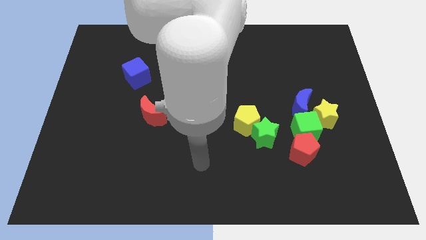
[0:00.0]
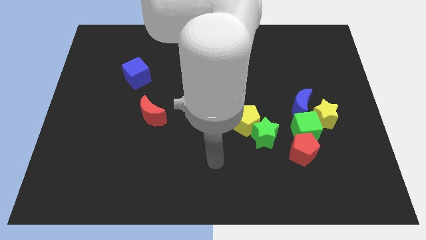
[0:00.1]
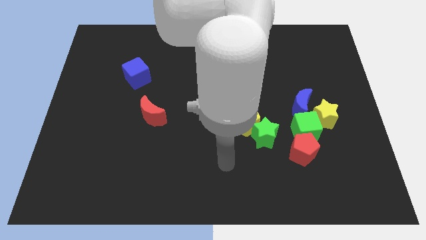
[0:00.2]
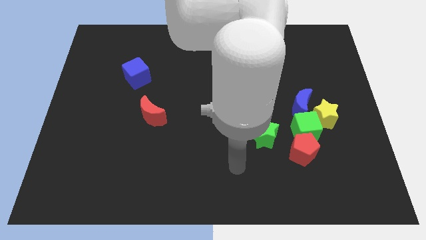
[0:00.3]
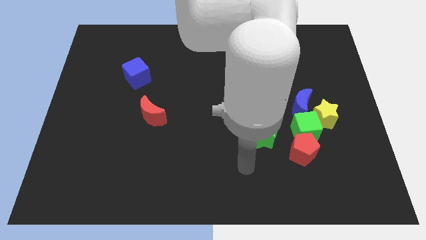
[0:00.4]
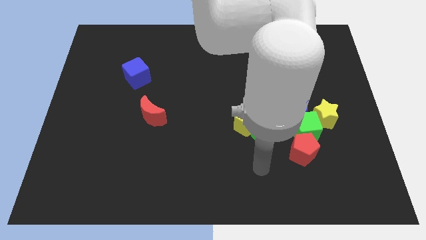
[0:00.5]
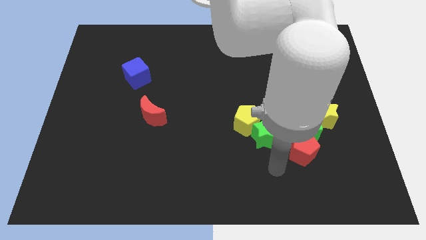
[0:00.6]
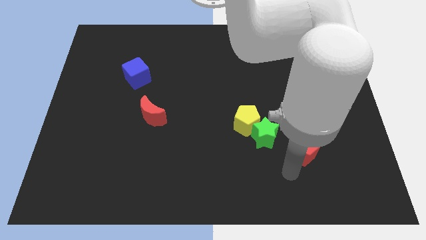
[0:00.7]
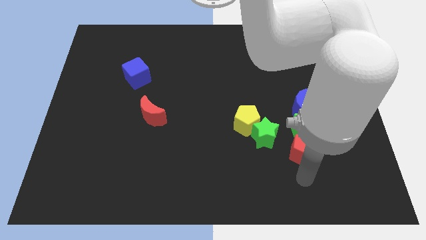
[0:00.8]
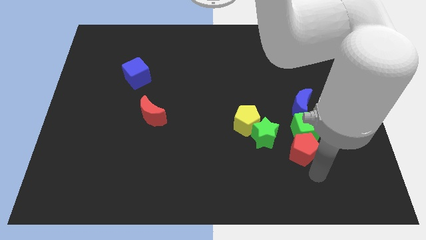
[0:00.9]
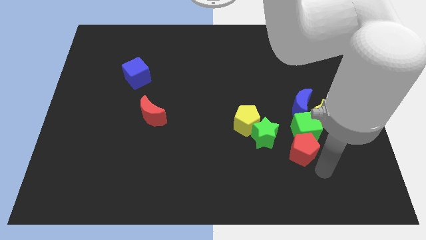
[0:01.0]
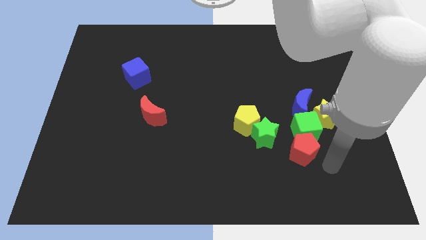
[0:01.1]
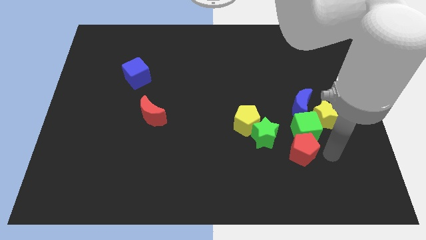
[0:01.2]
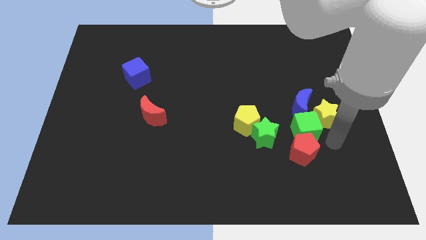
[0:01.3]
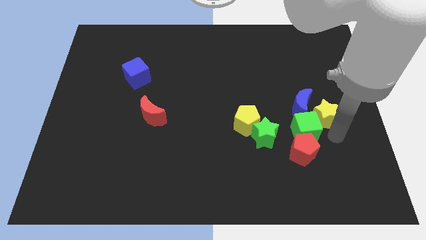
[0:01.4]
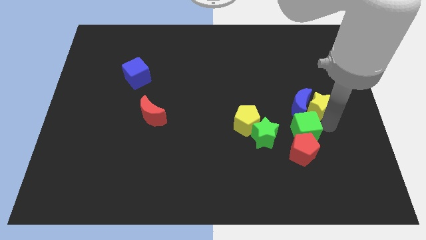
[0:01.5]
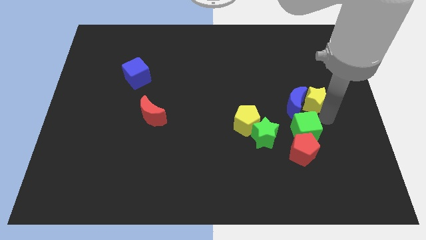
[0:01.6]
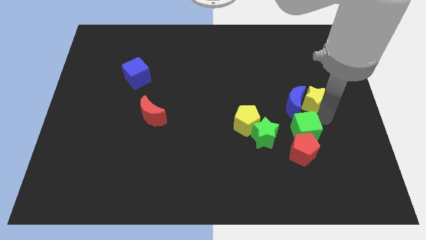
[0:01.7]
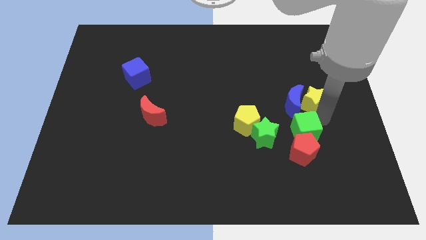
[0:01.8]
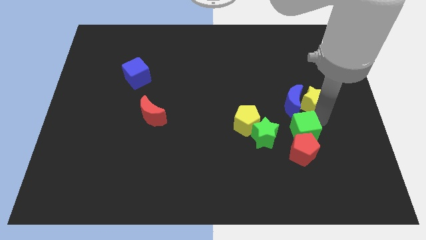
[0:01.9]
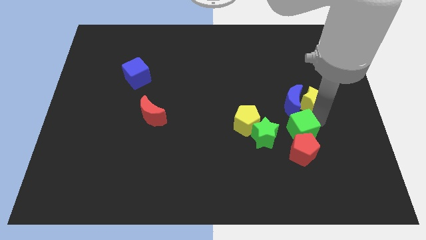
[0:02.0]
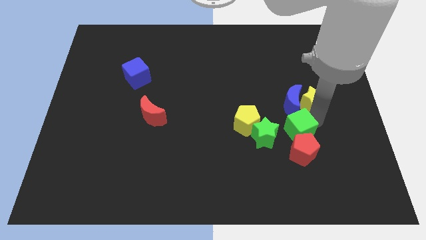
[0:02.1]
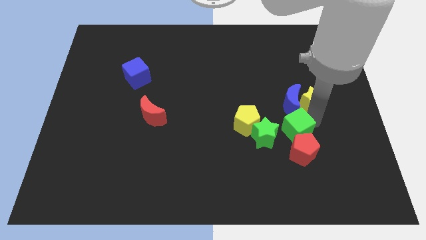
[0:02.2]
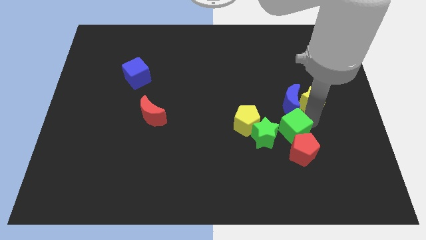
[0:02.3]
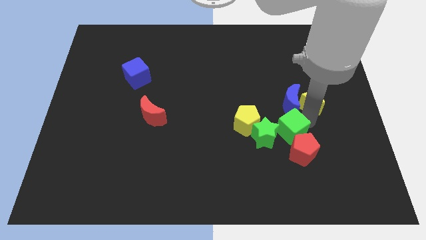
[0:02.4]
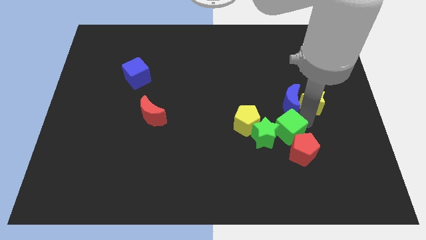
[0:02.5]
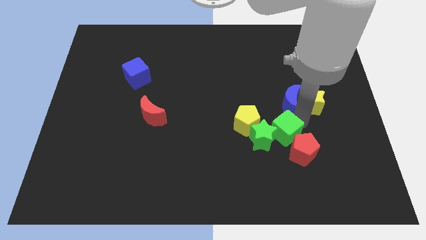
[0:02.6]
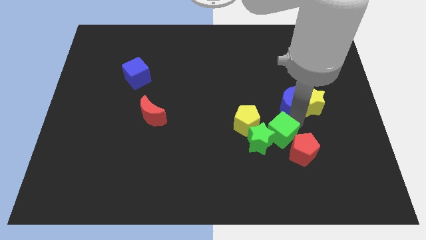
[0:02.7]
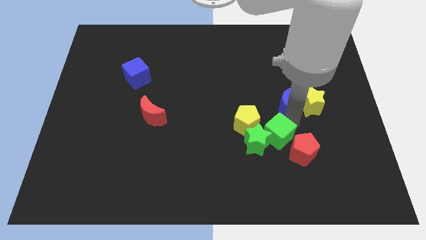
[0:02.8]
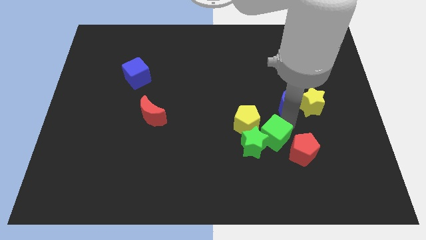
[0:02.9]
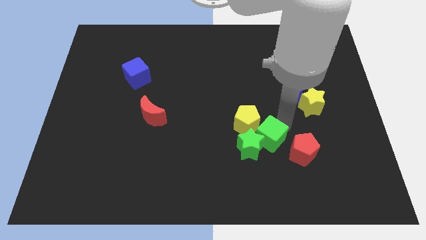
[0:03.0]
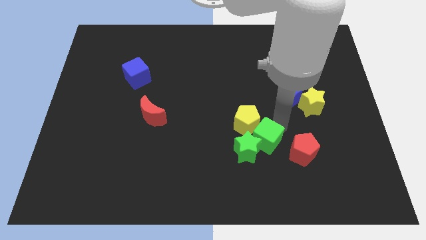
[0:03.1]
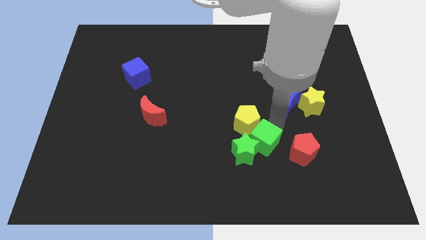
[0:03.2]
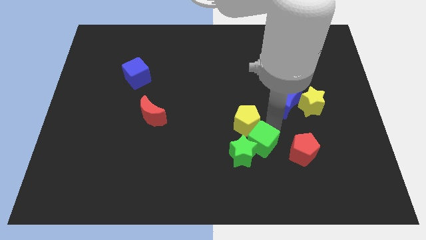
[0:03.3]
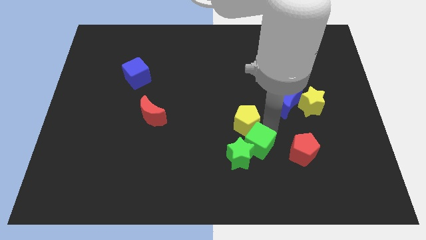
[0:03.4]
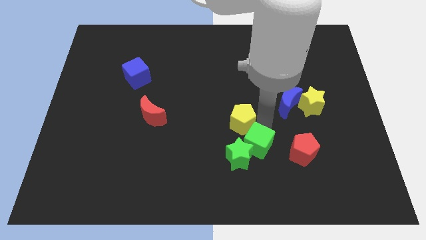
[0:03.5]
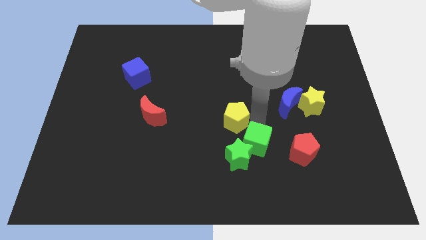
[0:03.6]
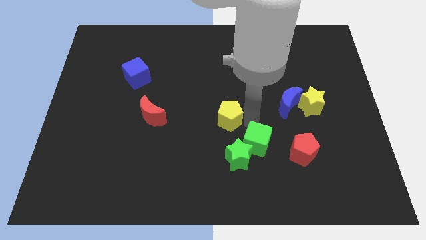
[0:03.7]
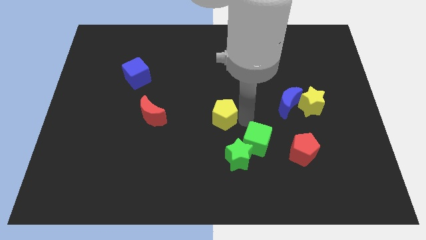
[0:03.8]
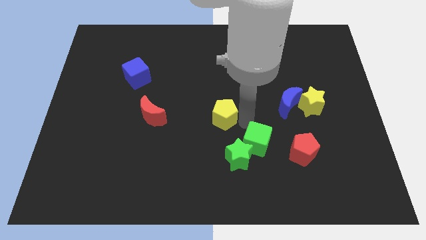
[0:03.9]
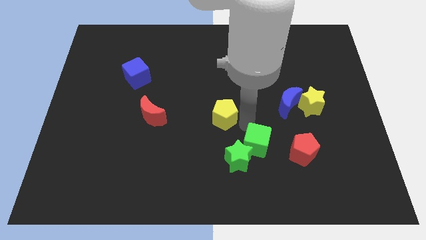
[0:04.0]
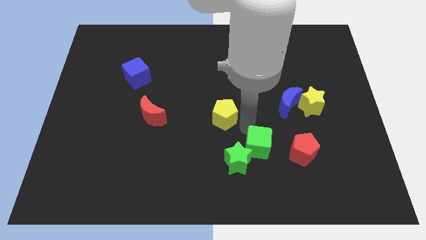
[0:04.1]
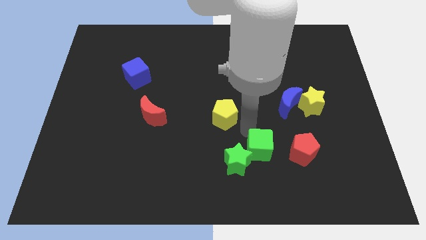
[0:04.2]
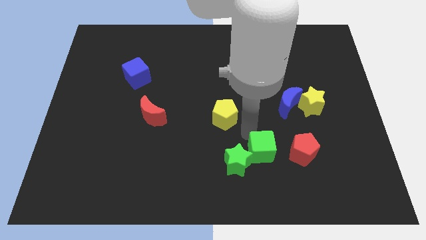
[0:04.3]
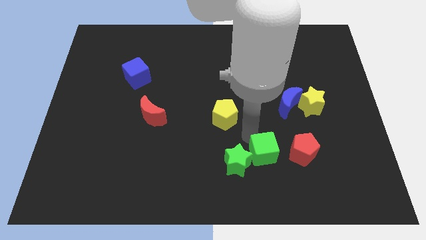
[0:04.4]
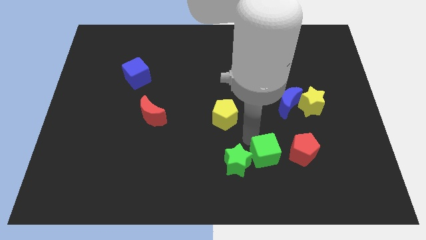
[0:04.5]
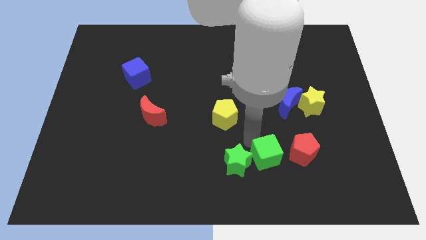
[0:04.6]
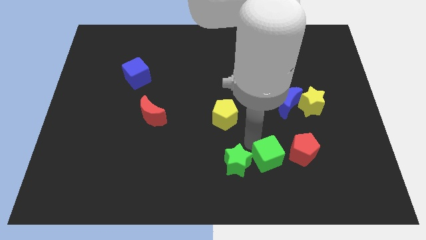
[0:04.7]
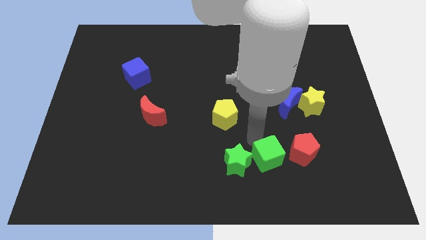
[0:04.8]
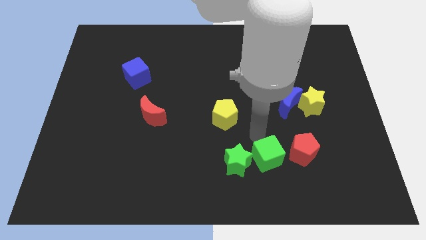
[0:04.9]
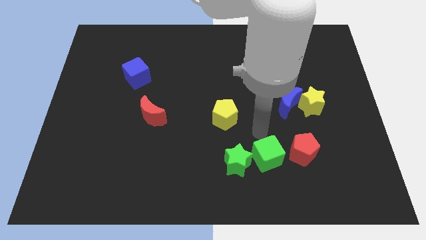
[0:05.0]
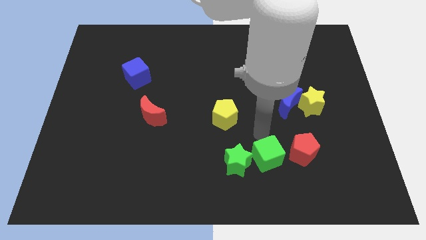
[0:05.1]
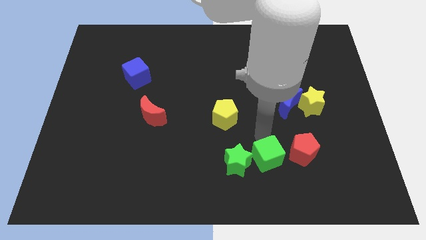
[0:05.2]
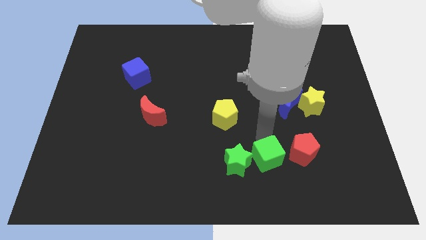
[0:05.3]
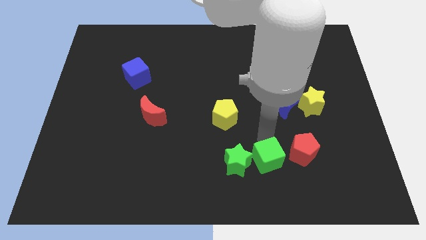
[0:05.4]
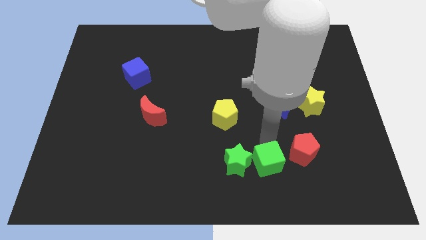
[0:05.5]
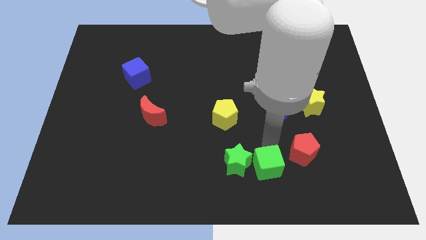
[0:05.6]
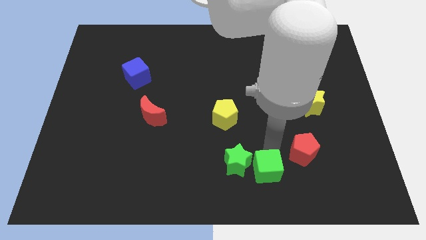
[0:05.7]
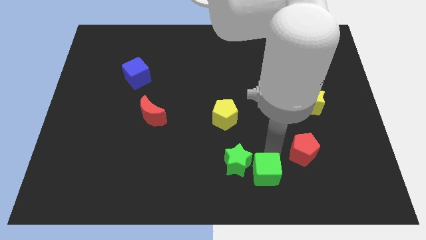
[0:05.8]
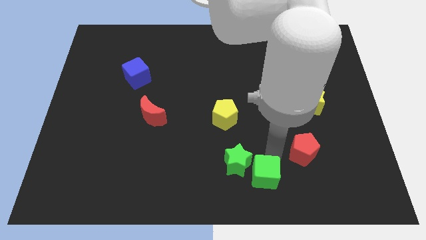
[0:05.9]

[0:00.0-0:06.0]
slide the green cube to the bottom side
